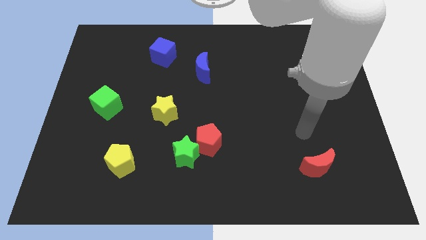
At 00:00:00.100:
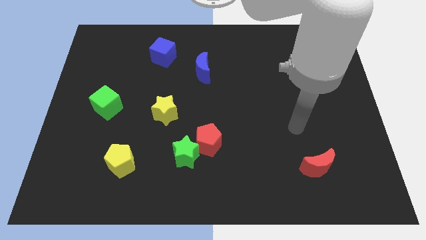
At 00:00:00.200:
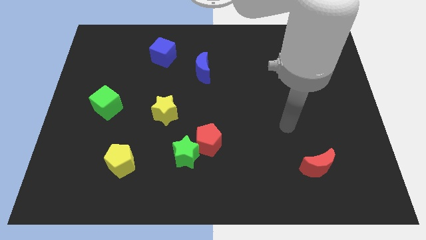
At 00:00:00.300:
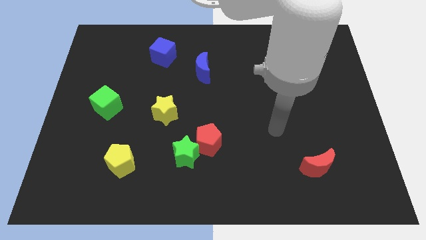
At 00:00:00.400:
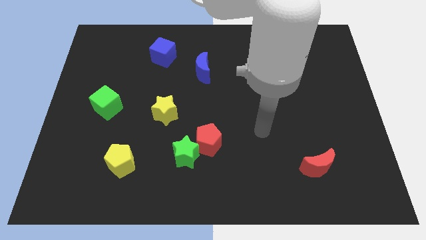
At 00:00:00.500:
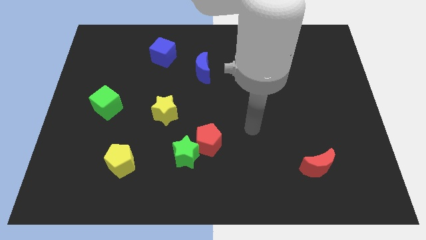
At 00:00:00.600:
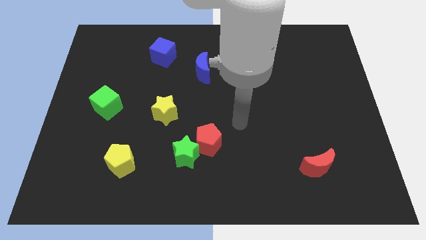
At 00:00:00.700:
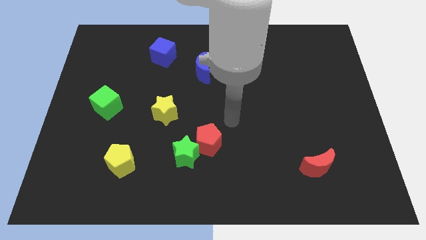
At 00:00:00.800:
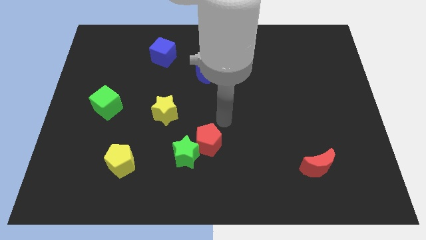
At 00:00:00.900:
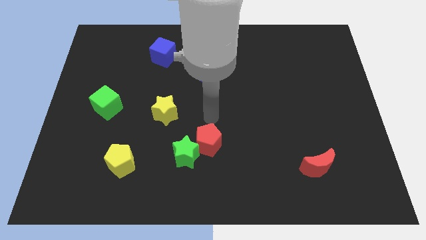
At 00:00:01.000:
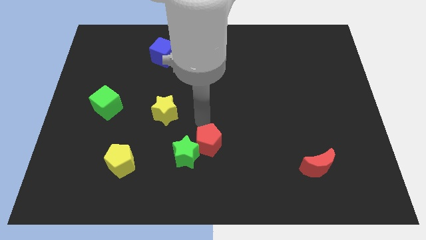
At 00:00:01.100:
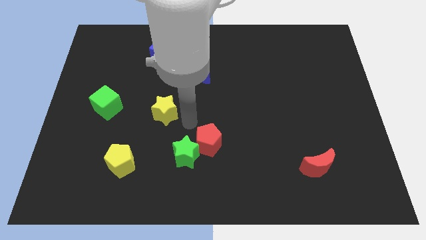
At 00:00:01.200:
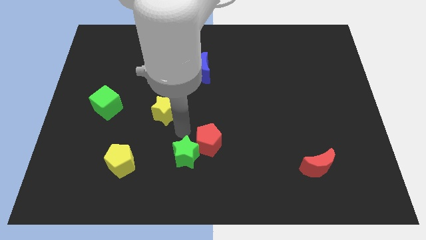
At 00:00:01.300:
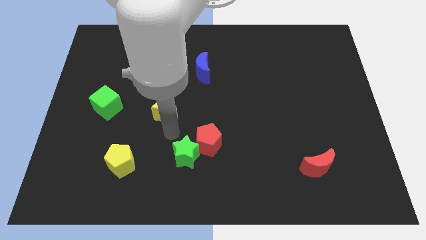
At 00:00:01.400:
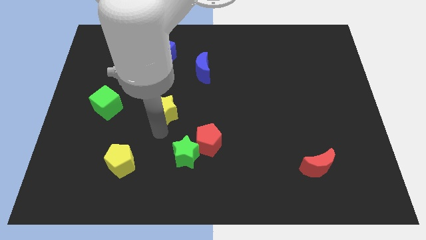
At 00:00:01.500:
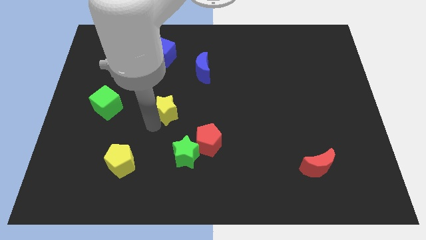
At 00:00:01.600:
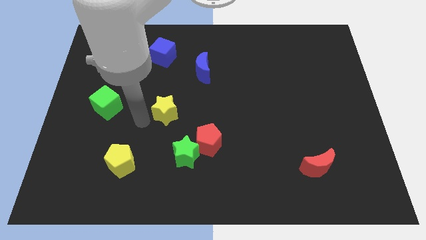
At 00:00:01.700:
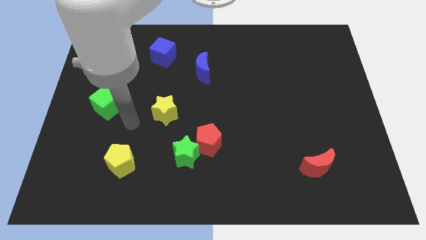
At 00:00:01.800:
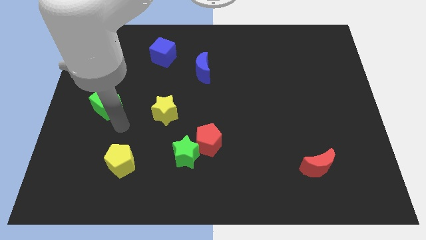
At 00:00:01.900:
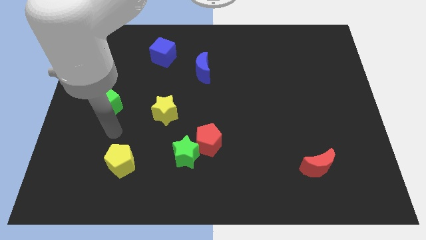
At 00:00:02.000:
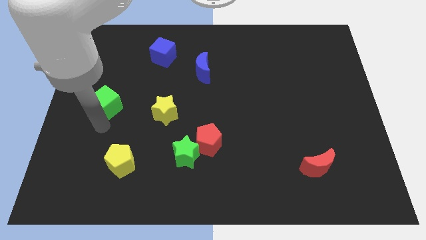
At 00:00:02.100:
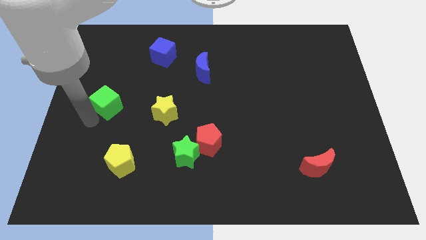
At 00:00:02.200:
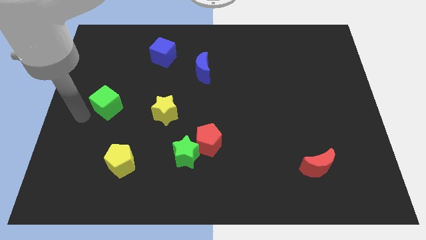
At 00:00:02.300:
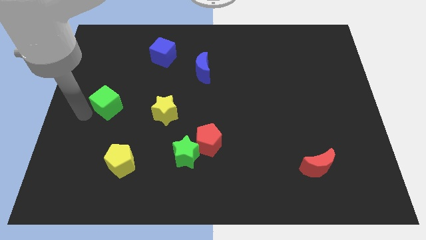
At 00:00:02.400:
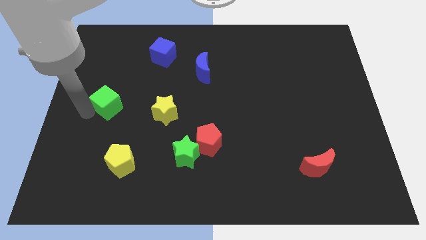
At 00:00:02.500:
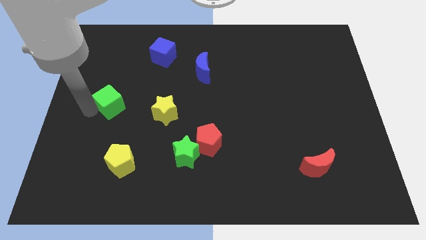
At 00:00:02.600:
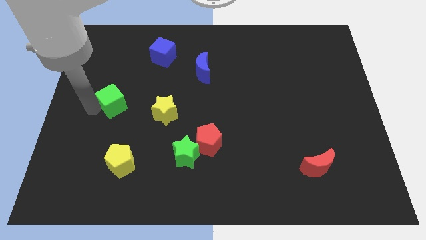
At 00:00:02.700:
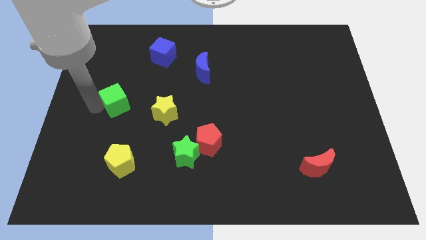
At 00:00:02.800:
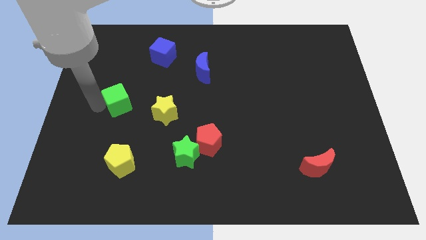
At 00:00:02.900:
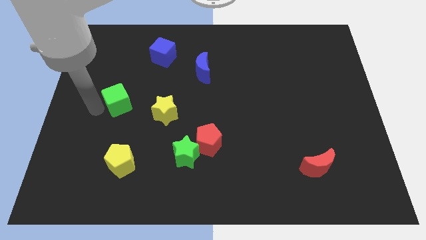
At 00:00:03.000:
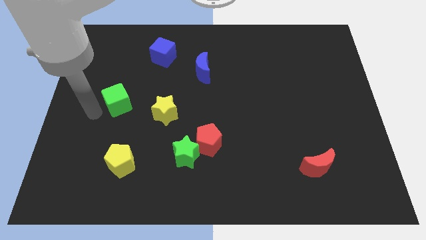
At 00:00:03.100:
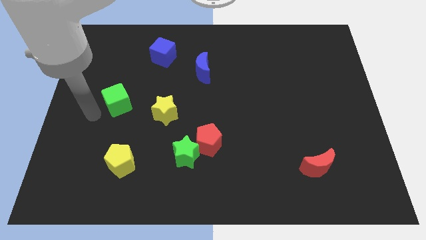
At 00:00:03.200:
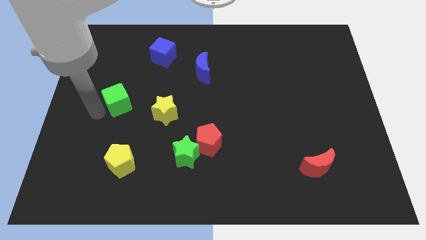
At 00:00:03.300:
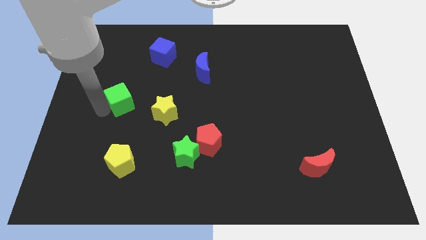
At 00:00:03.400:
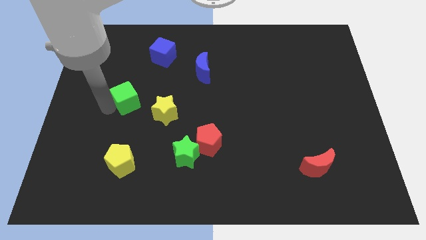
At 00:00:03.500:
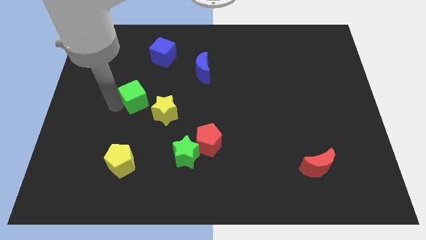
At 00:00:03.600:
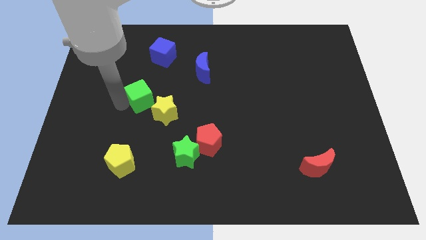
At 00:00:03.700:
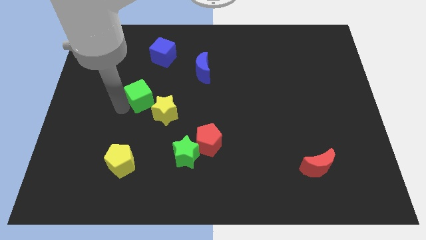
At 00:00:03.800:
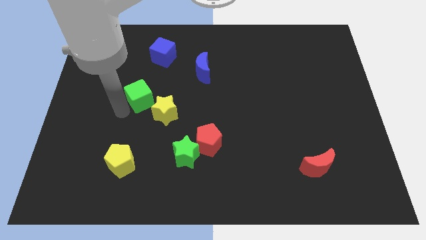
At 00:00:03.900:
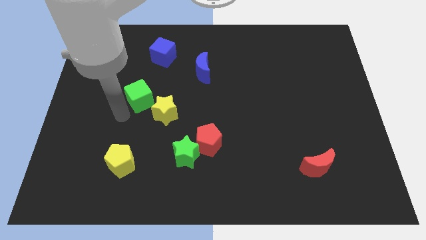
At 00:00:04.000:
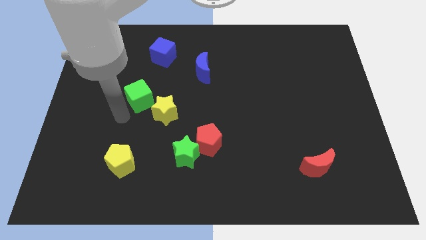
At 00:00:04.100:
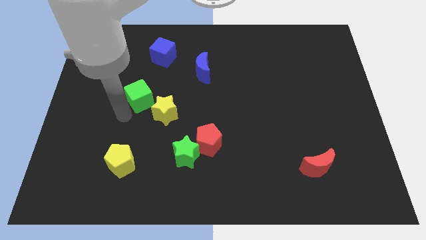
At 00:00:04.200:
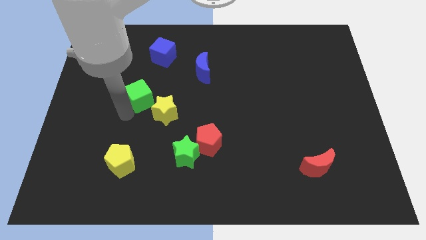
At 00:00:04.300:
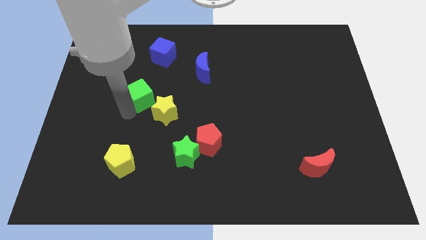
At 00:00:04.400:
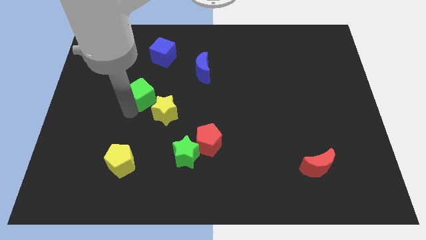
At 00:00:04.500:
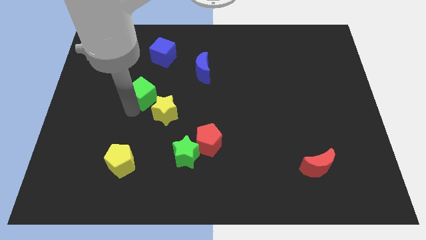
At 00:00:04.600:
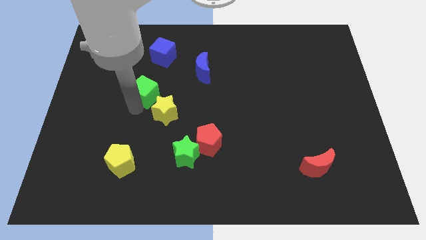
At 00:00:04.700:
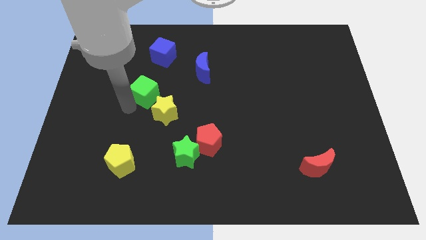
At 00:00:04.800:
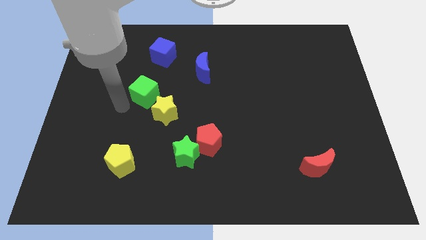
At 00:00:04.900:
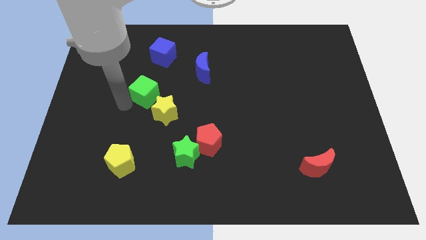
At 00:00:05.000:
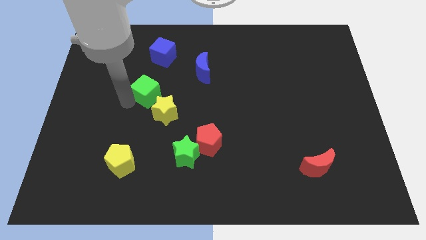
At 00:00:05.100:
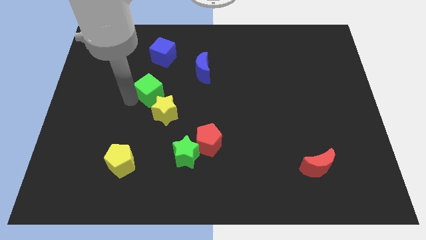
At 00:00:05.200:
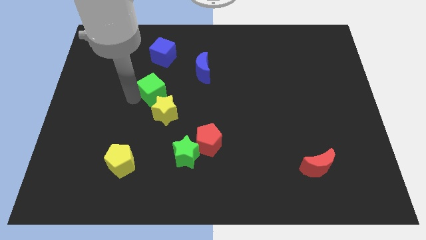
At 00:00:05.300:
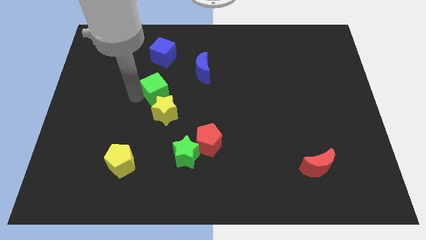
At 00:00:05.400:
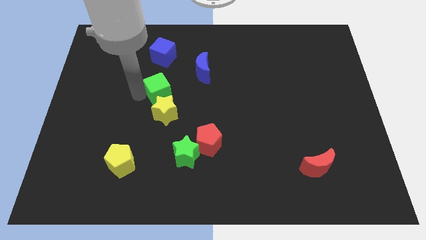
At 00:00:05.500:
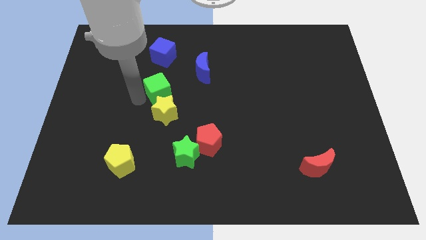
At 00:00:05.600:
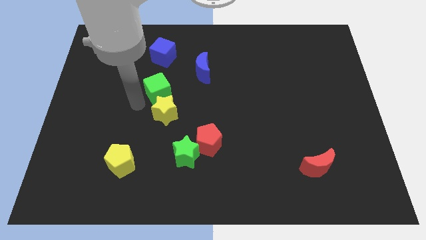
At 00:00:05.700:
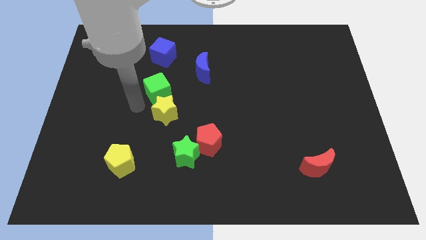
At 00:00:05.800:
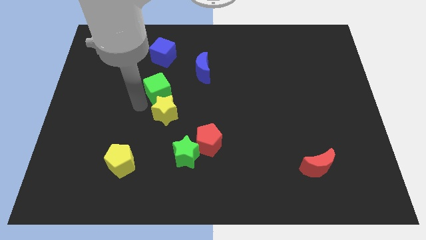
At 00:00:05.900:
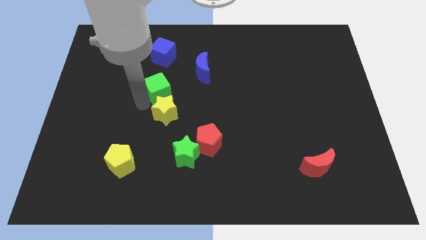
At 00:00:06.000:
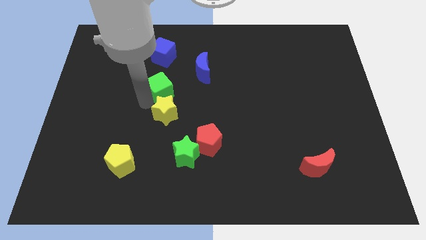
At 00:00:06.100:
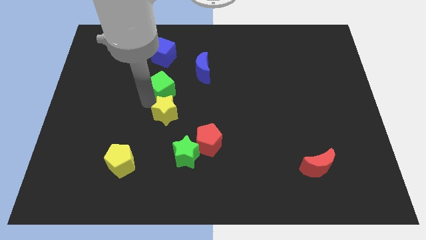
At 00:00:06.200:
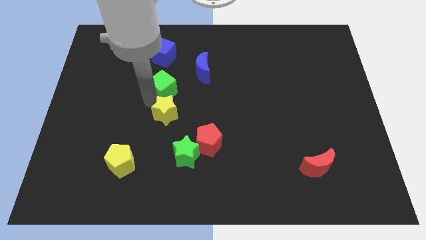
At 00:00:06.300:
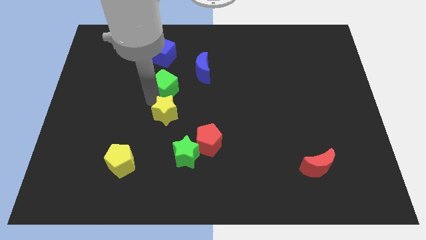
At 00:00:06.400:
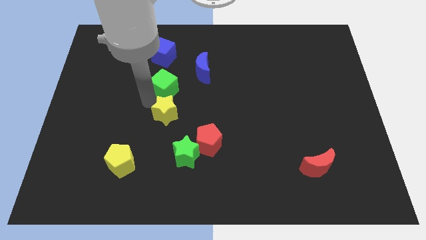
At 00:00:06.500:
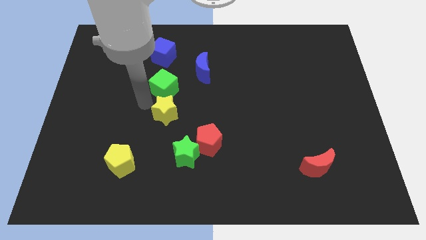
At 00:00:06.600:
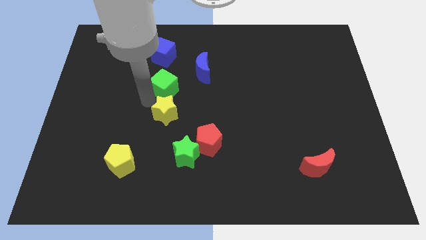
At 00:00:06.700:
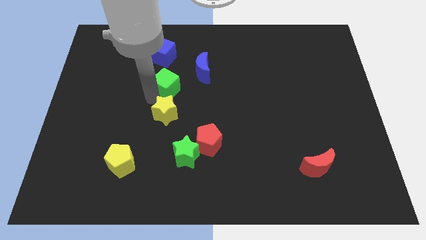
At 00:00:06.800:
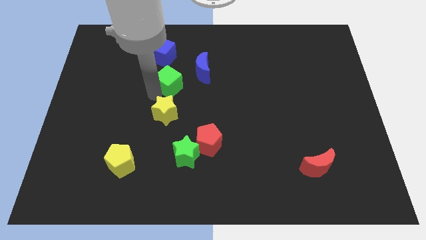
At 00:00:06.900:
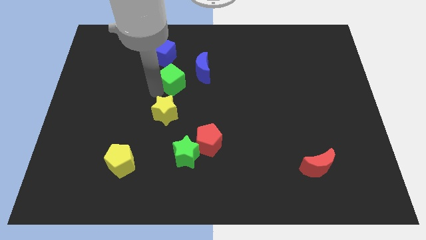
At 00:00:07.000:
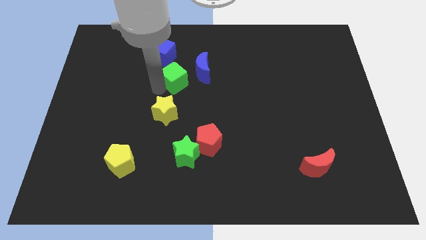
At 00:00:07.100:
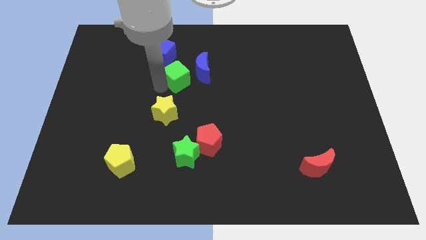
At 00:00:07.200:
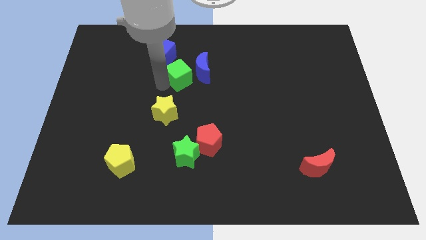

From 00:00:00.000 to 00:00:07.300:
move the green cube next to the blue moon
